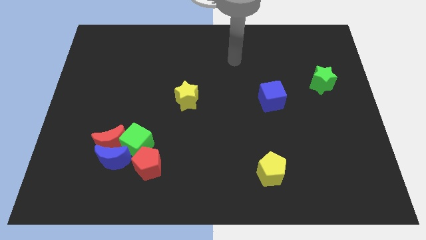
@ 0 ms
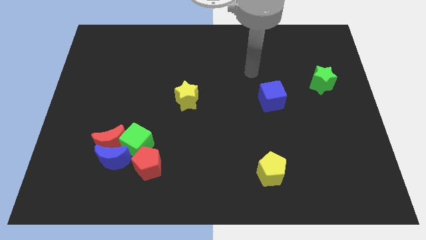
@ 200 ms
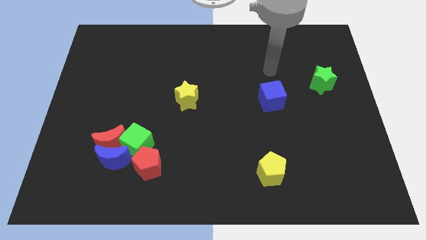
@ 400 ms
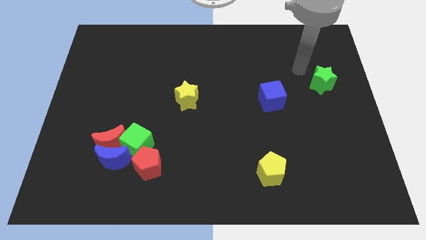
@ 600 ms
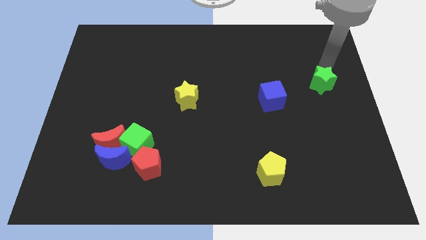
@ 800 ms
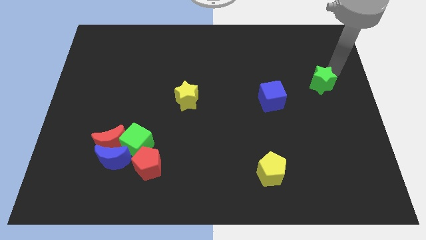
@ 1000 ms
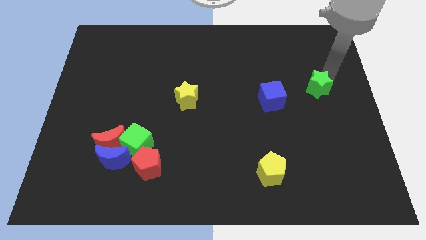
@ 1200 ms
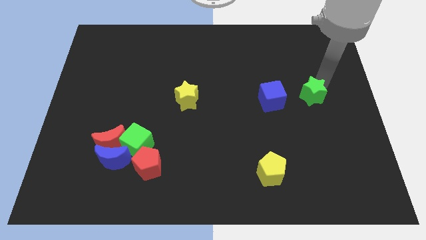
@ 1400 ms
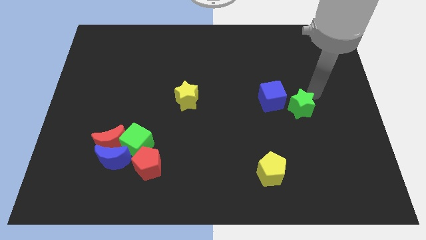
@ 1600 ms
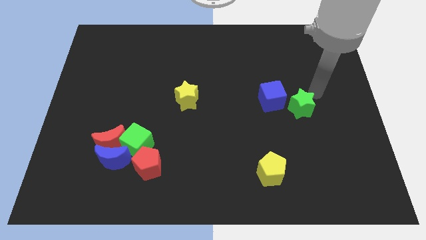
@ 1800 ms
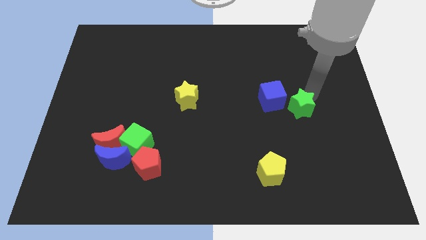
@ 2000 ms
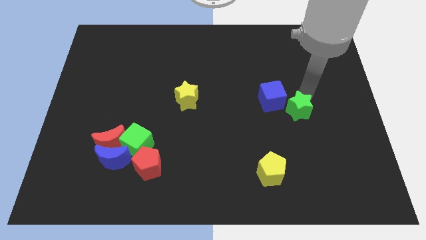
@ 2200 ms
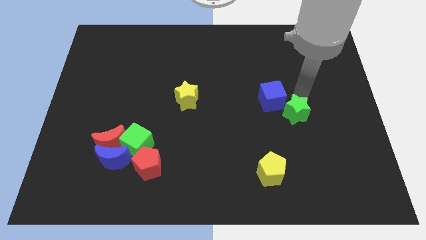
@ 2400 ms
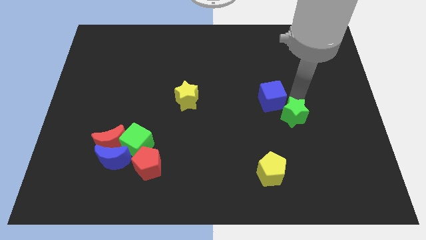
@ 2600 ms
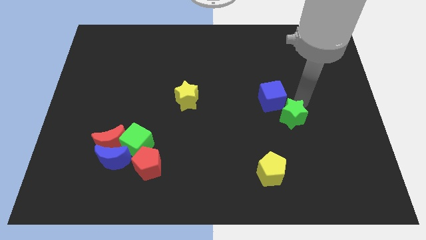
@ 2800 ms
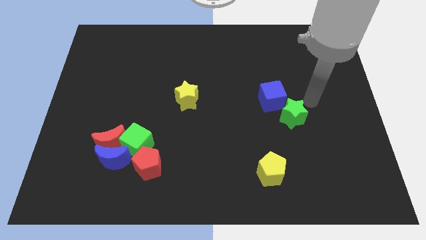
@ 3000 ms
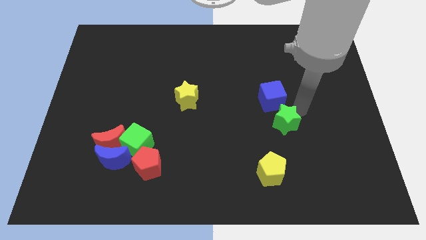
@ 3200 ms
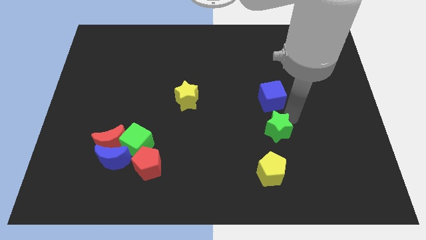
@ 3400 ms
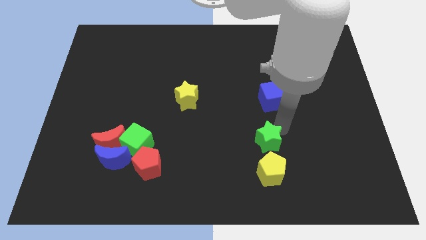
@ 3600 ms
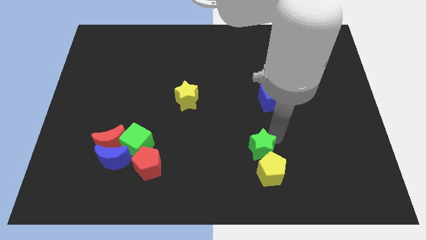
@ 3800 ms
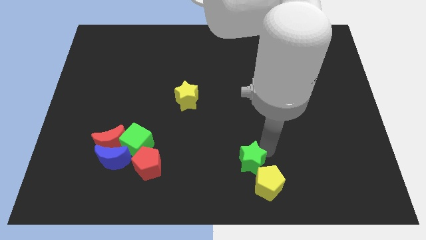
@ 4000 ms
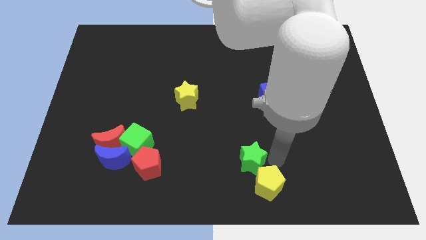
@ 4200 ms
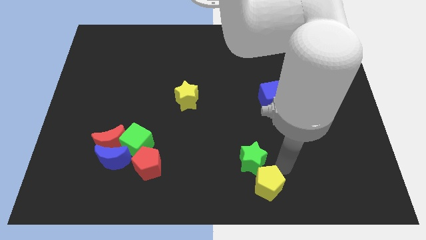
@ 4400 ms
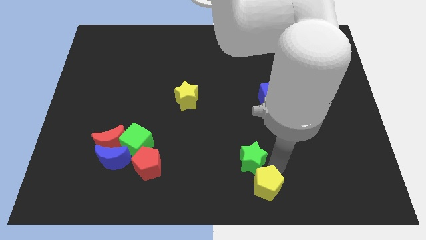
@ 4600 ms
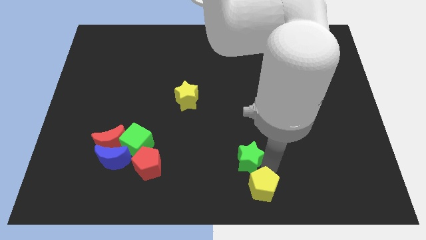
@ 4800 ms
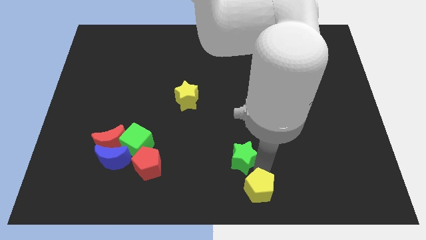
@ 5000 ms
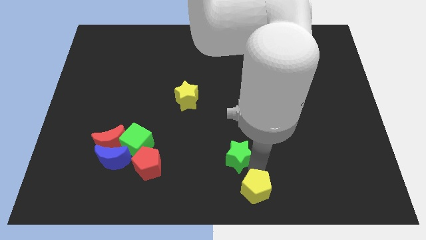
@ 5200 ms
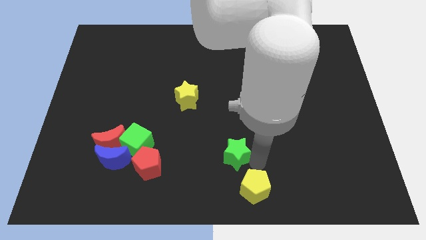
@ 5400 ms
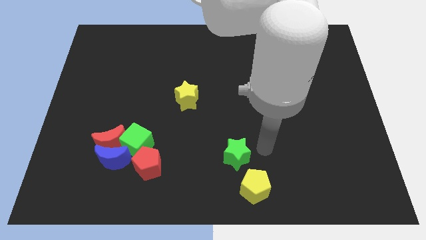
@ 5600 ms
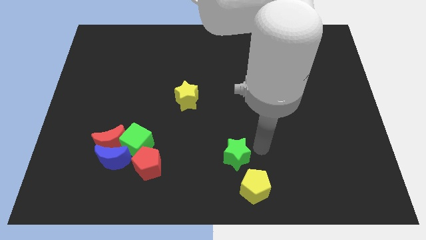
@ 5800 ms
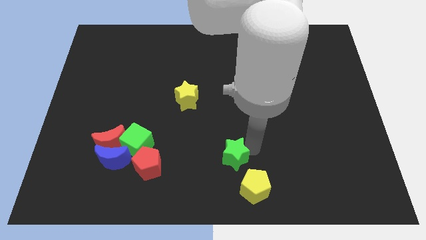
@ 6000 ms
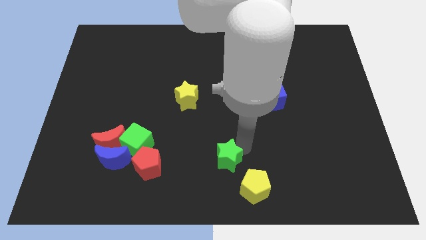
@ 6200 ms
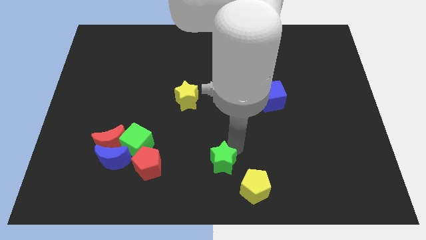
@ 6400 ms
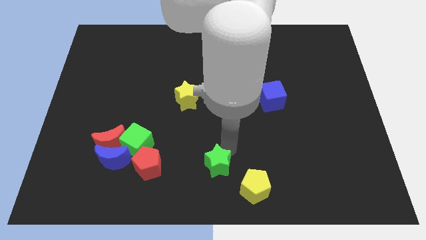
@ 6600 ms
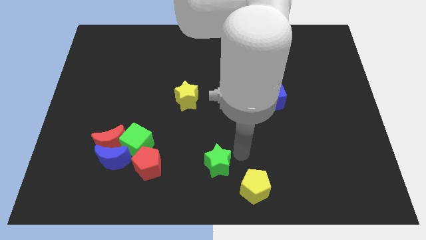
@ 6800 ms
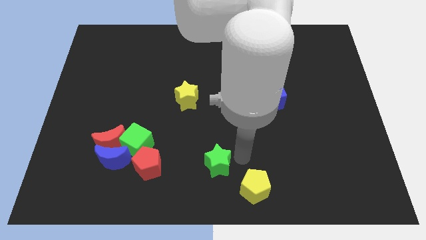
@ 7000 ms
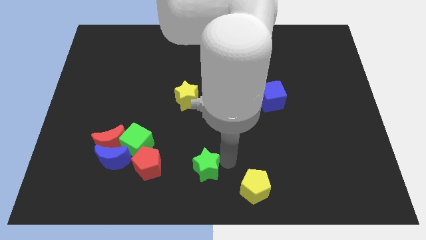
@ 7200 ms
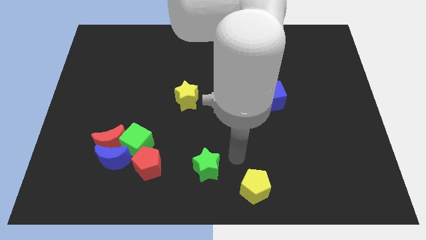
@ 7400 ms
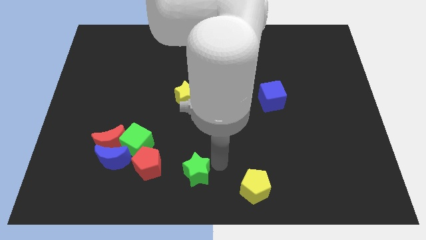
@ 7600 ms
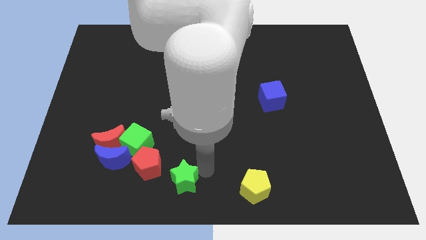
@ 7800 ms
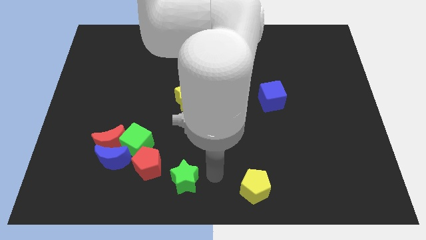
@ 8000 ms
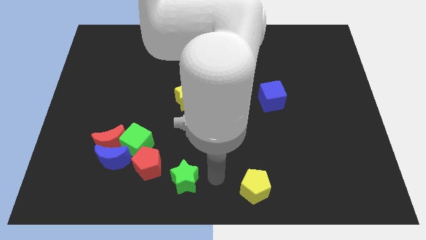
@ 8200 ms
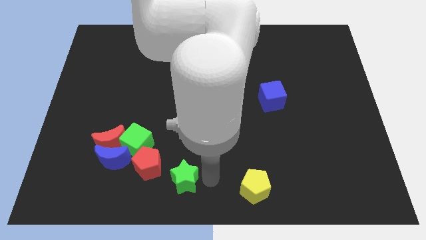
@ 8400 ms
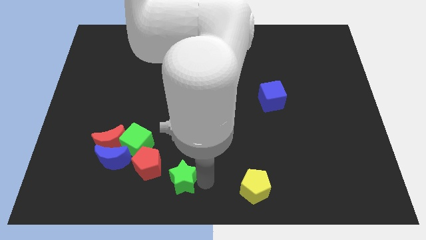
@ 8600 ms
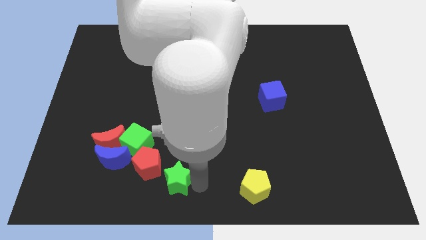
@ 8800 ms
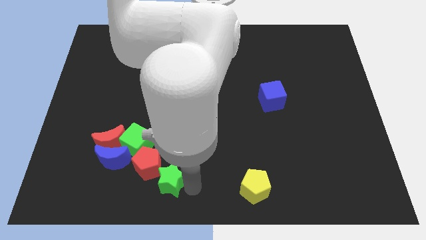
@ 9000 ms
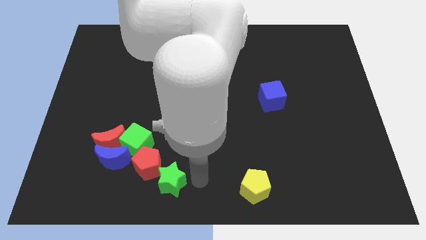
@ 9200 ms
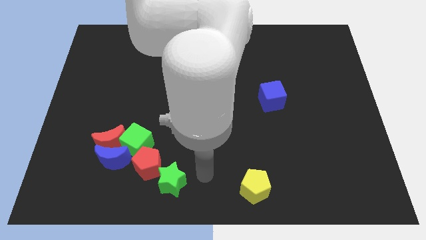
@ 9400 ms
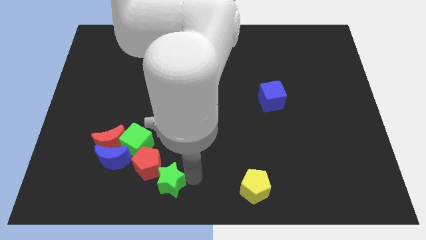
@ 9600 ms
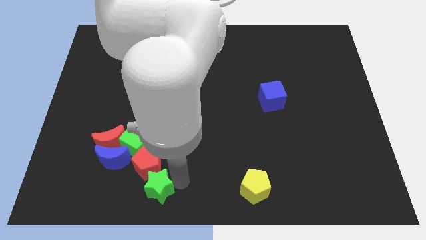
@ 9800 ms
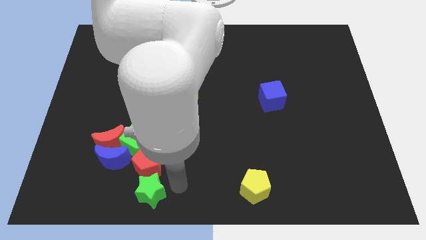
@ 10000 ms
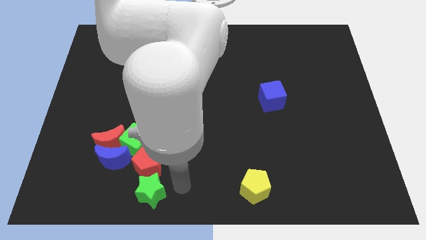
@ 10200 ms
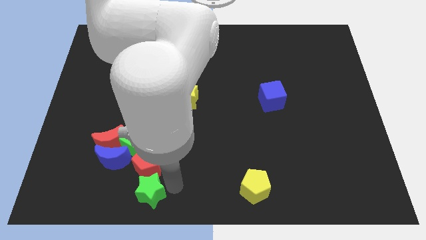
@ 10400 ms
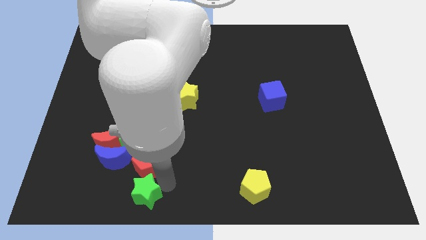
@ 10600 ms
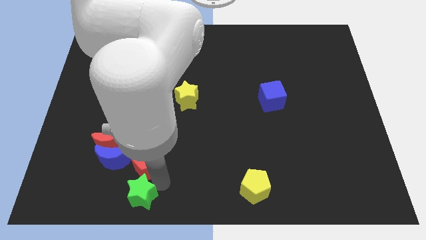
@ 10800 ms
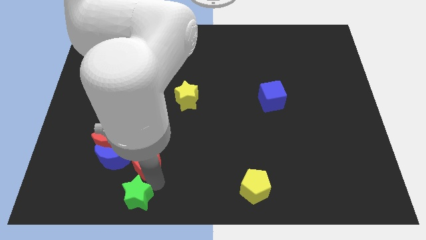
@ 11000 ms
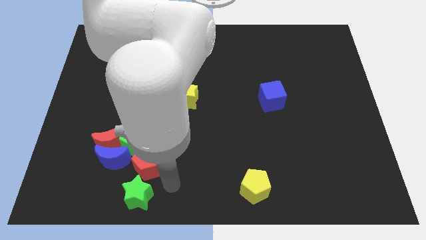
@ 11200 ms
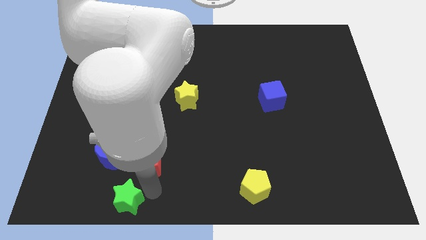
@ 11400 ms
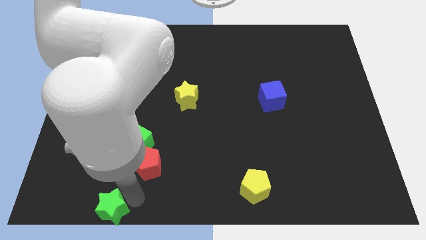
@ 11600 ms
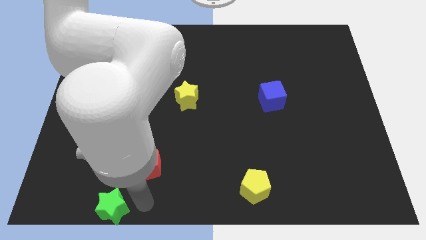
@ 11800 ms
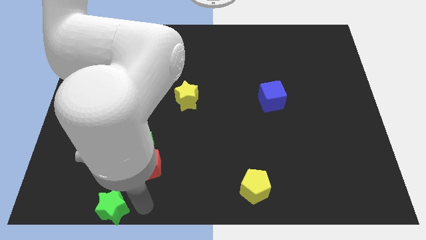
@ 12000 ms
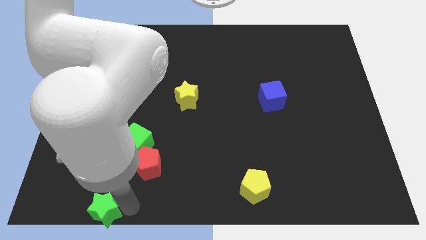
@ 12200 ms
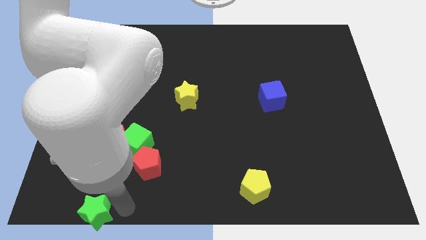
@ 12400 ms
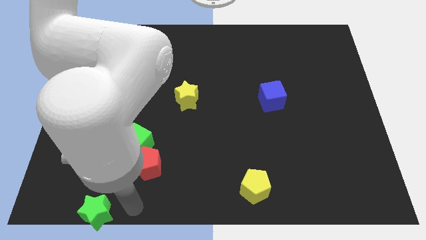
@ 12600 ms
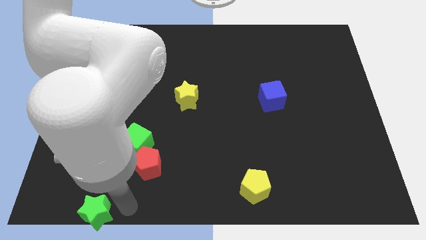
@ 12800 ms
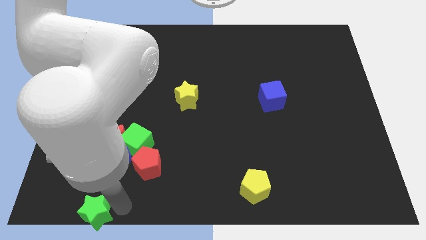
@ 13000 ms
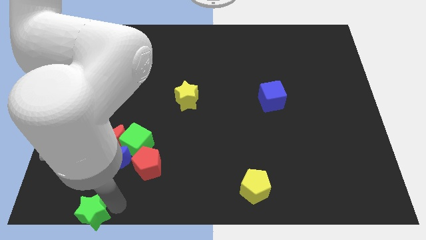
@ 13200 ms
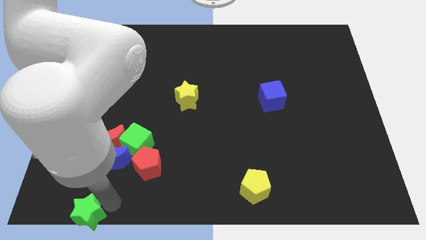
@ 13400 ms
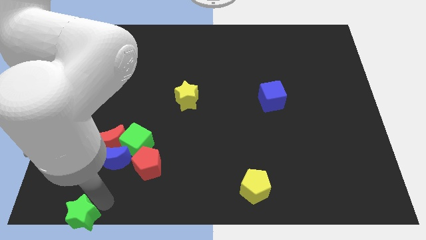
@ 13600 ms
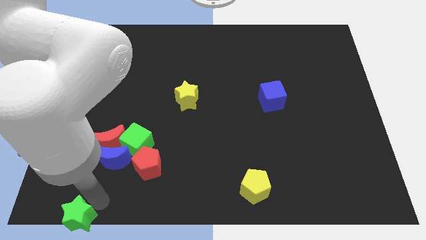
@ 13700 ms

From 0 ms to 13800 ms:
move the green star to the bottom left corner
